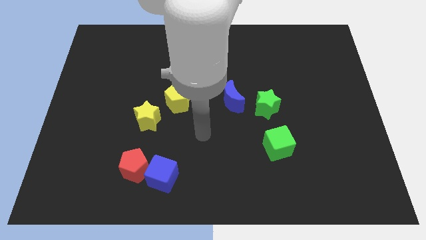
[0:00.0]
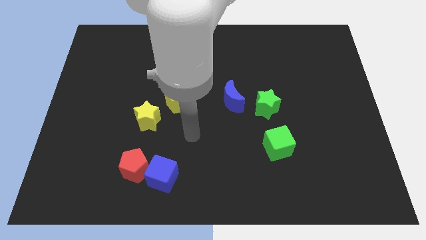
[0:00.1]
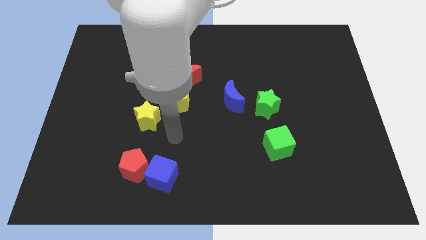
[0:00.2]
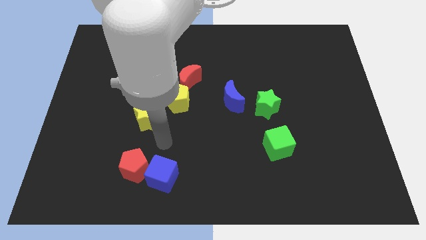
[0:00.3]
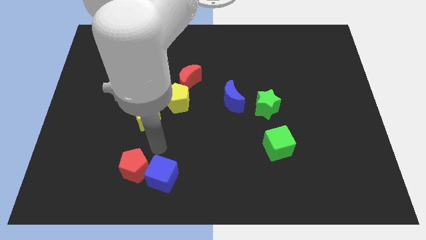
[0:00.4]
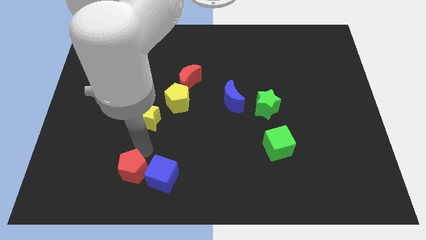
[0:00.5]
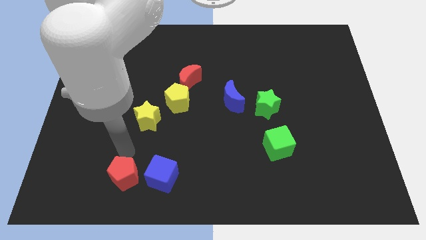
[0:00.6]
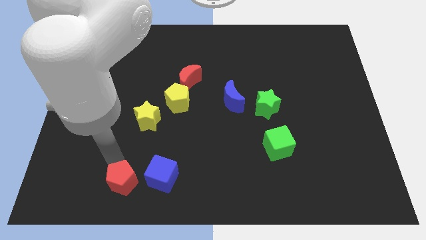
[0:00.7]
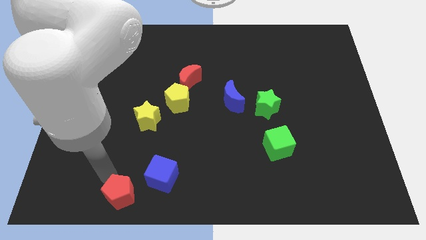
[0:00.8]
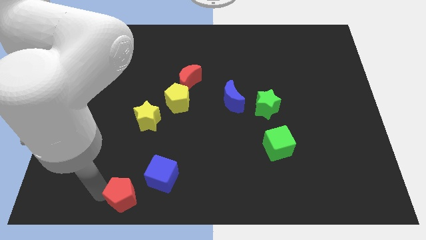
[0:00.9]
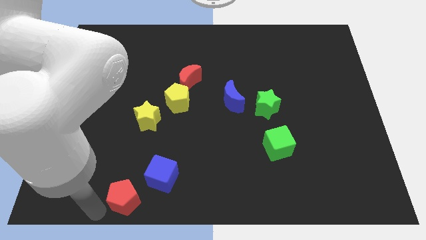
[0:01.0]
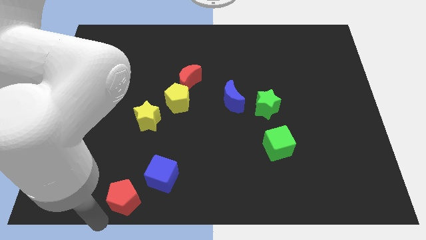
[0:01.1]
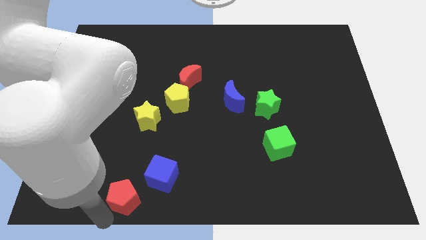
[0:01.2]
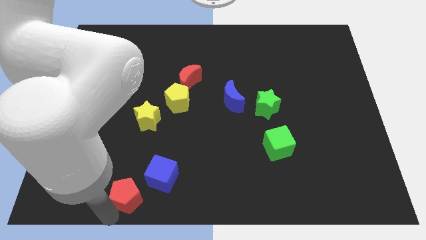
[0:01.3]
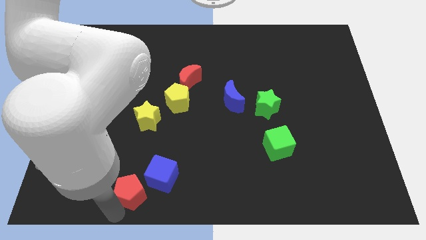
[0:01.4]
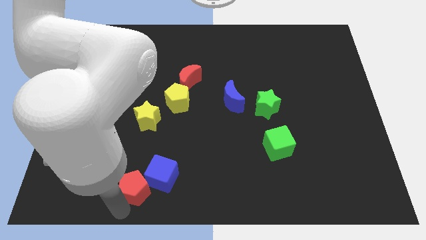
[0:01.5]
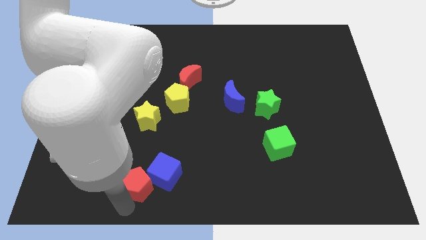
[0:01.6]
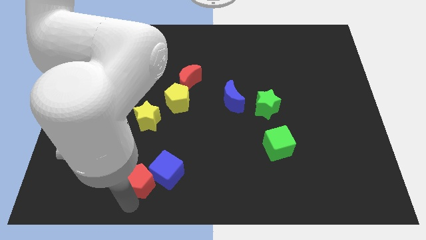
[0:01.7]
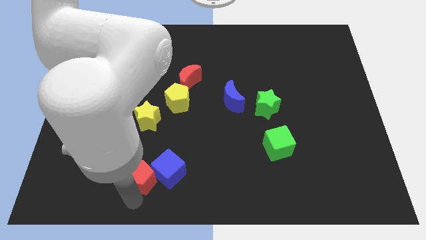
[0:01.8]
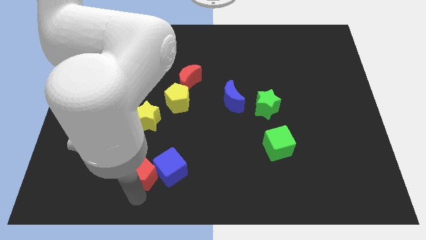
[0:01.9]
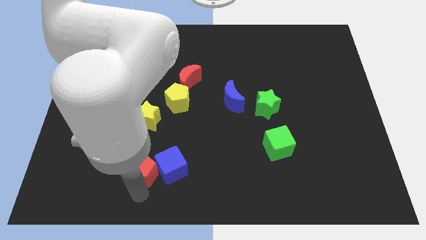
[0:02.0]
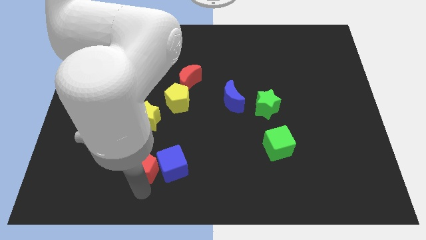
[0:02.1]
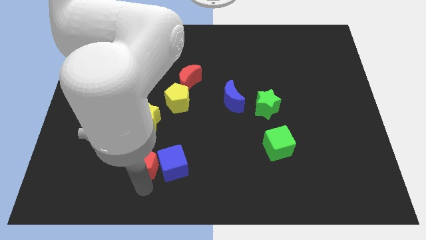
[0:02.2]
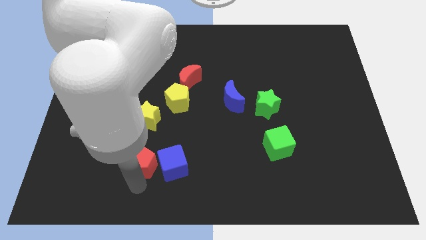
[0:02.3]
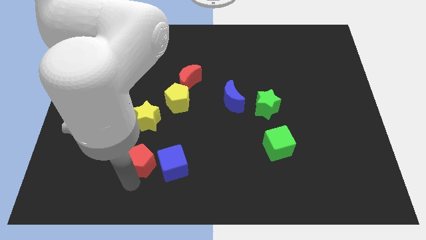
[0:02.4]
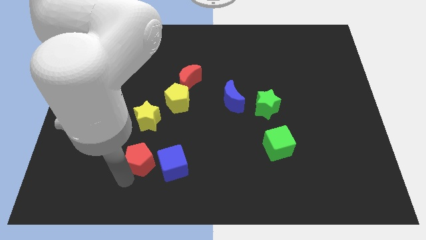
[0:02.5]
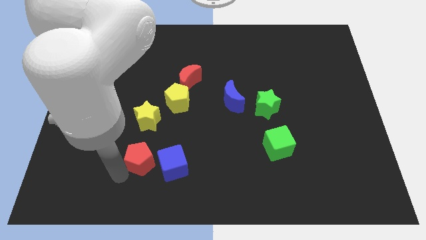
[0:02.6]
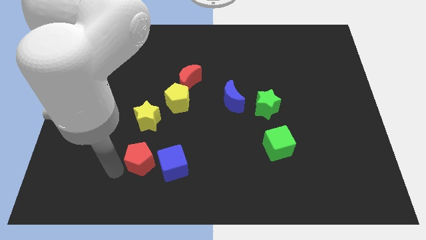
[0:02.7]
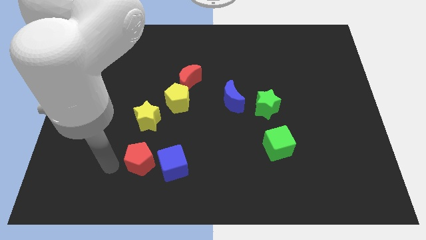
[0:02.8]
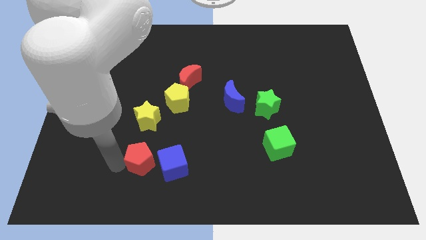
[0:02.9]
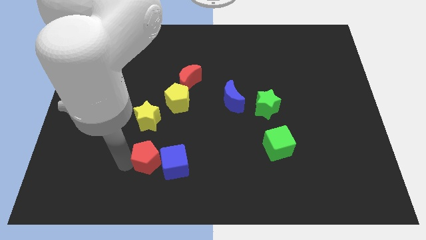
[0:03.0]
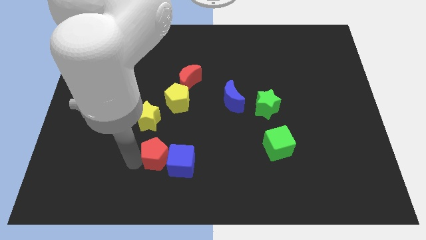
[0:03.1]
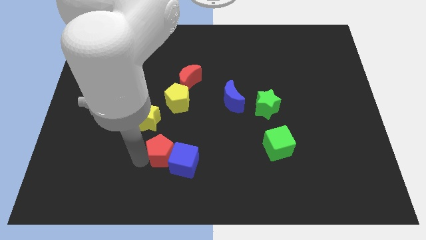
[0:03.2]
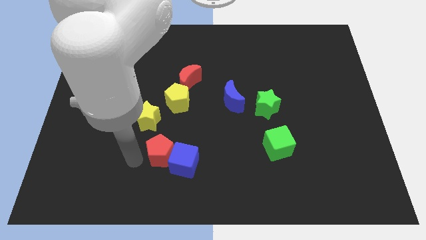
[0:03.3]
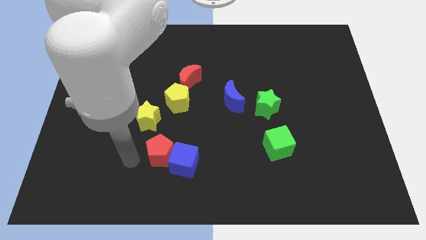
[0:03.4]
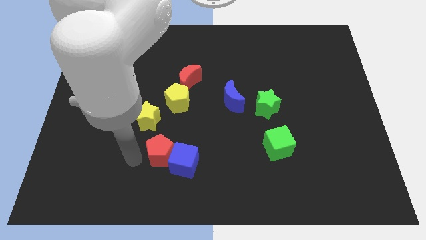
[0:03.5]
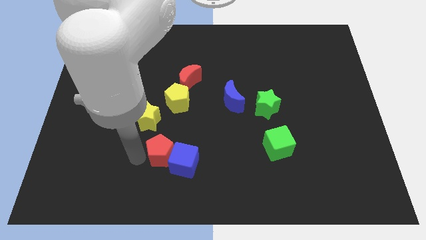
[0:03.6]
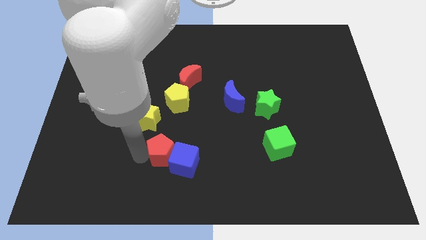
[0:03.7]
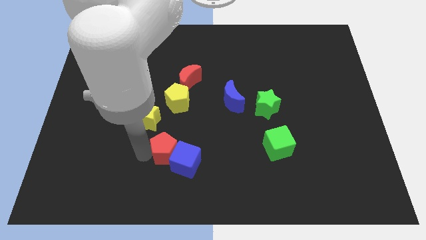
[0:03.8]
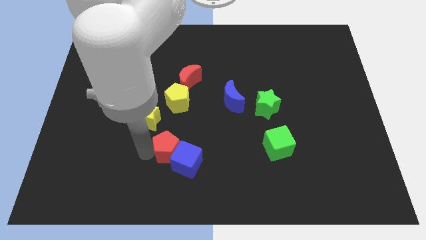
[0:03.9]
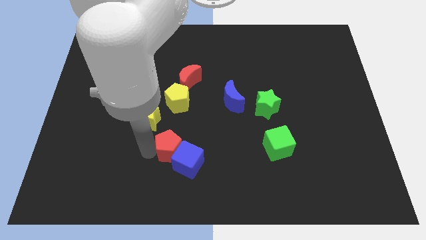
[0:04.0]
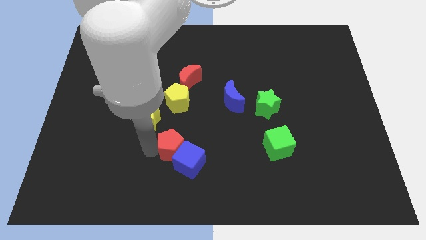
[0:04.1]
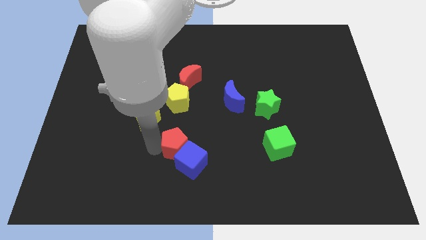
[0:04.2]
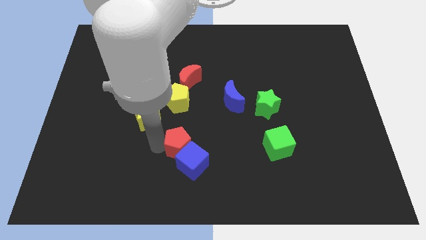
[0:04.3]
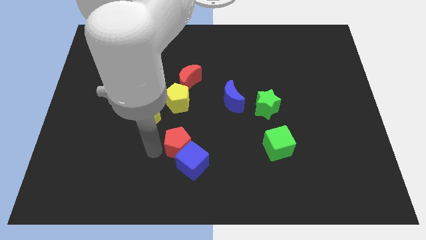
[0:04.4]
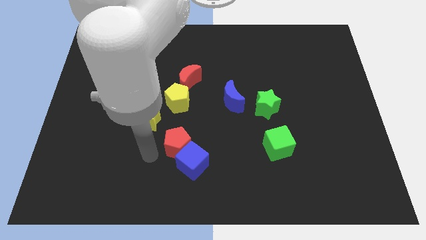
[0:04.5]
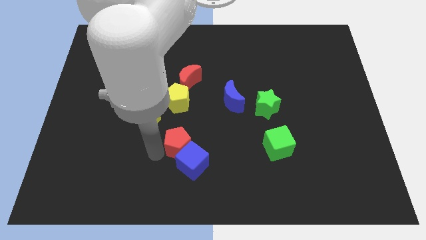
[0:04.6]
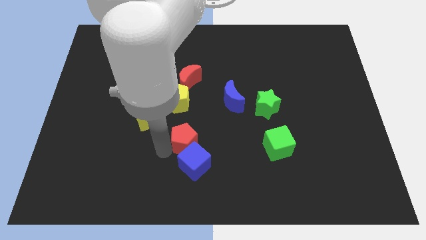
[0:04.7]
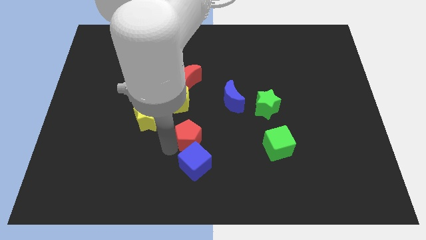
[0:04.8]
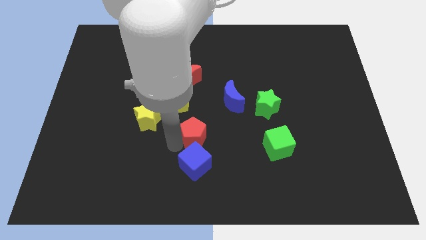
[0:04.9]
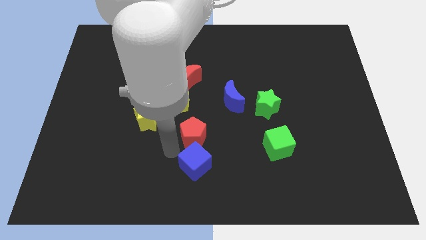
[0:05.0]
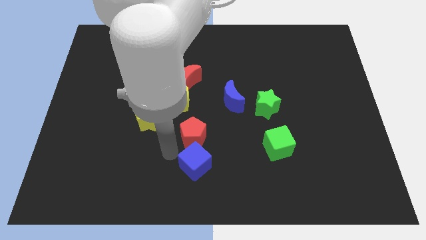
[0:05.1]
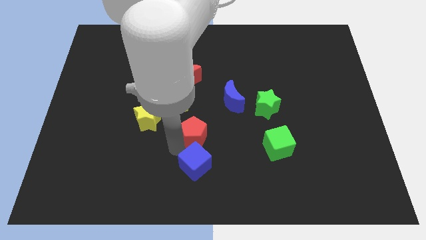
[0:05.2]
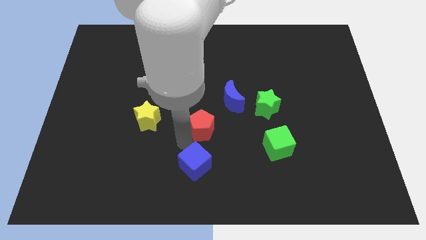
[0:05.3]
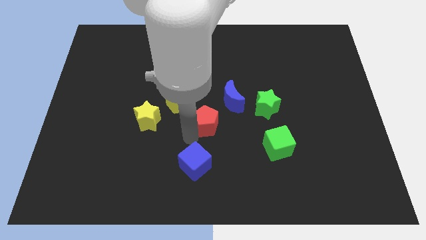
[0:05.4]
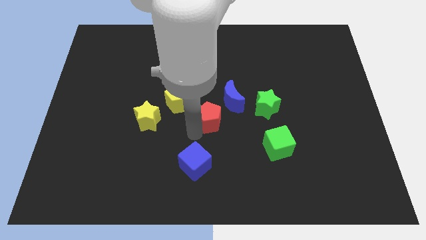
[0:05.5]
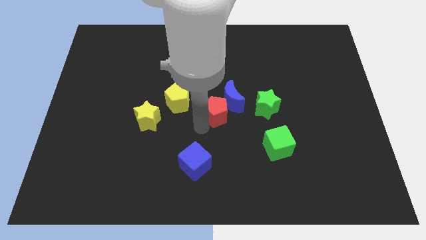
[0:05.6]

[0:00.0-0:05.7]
put the red pentagon to the blue moon

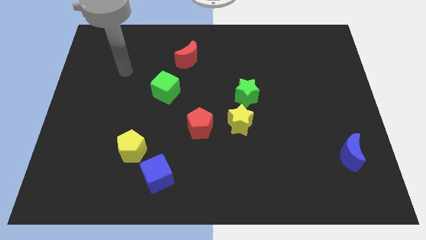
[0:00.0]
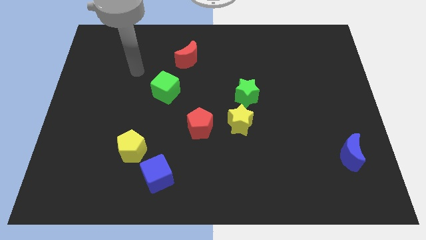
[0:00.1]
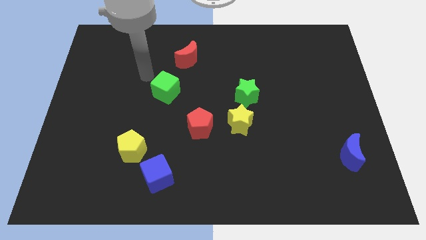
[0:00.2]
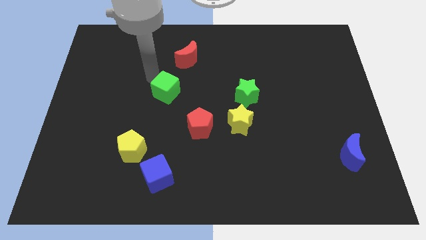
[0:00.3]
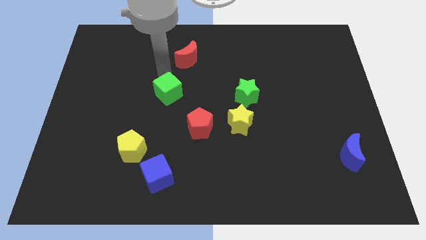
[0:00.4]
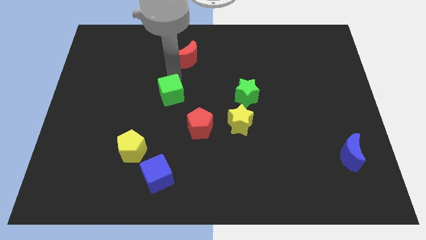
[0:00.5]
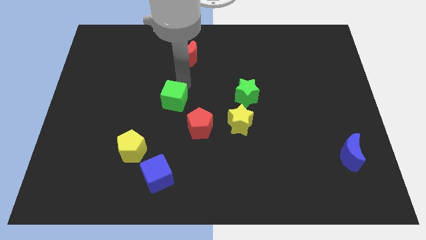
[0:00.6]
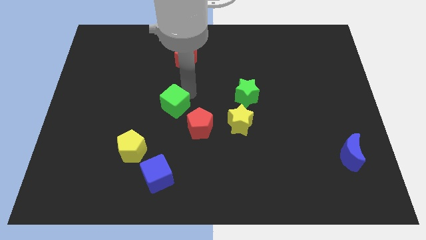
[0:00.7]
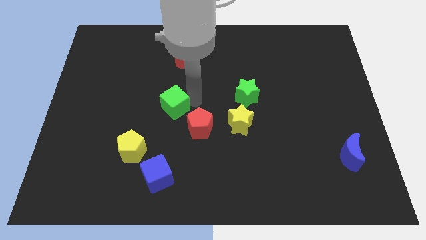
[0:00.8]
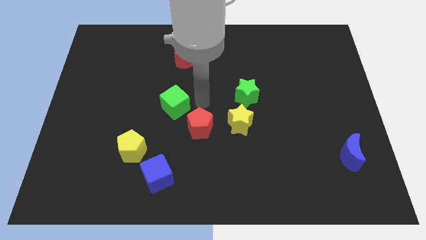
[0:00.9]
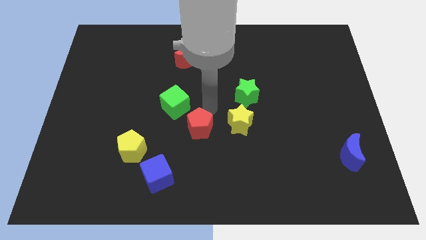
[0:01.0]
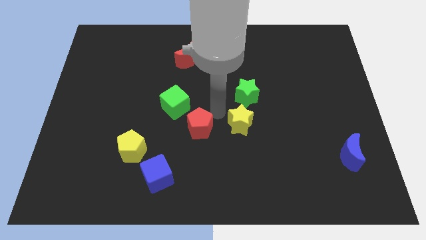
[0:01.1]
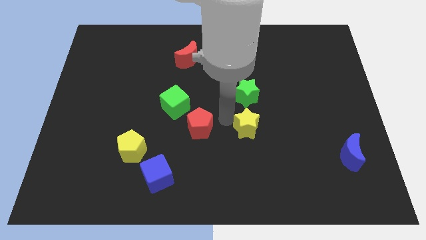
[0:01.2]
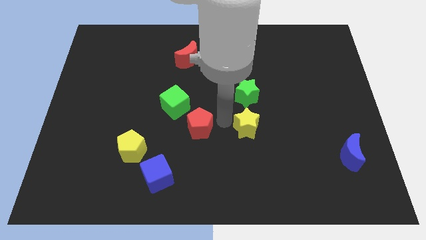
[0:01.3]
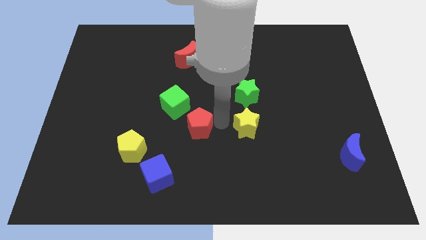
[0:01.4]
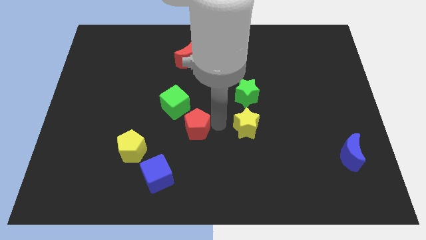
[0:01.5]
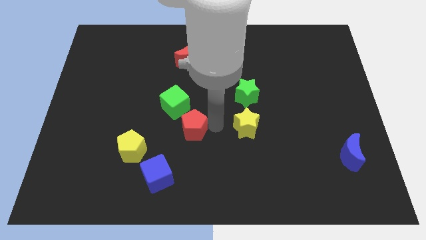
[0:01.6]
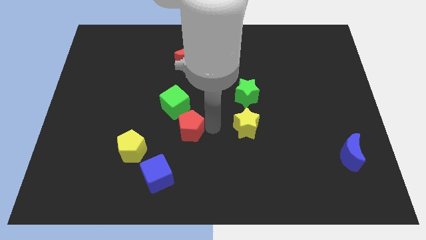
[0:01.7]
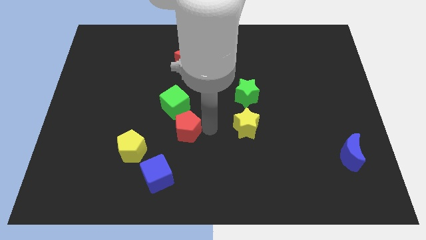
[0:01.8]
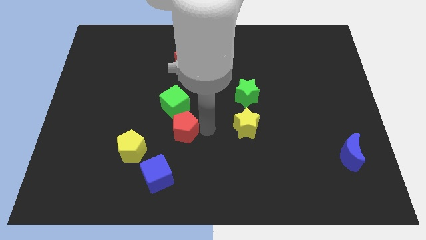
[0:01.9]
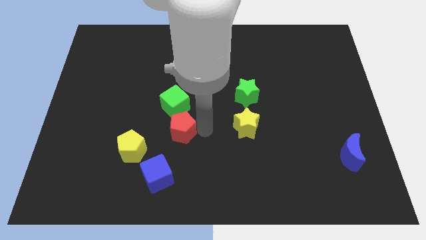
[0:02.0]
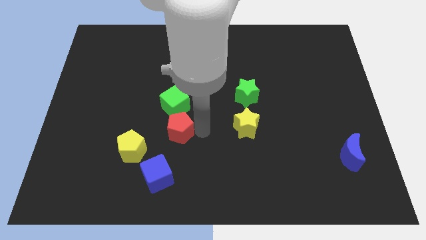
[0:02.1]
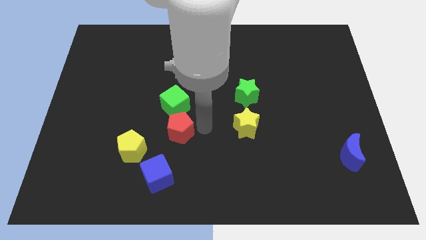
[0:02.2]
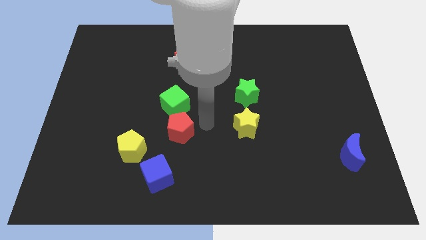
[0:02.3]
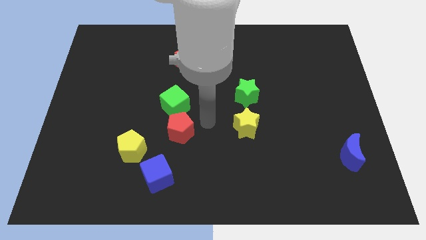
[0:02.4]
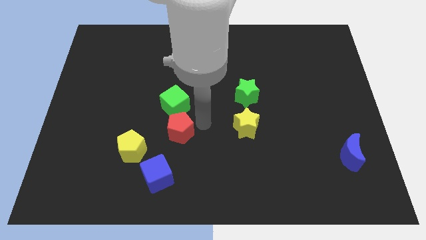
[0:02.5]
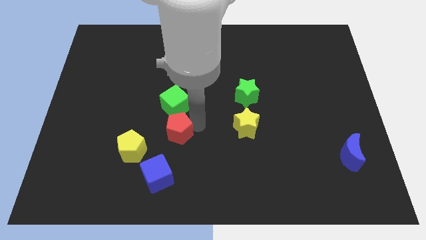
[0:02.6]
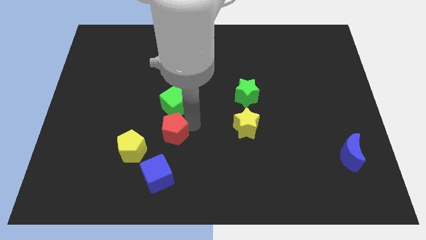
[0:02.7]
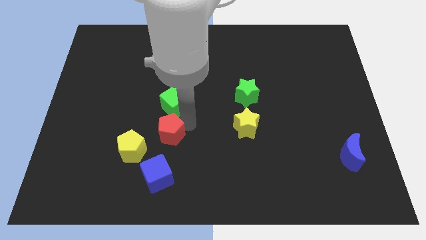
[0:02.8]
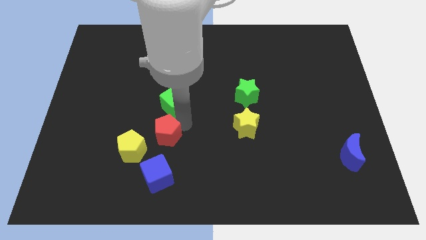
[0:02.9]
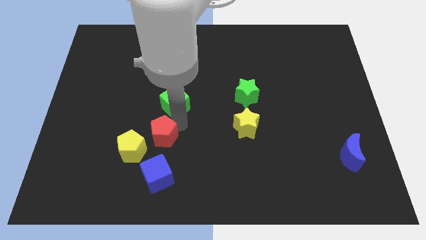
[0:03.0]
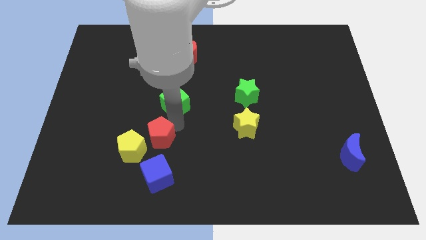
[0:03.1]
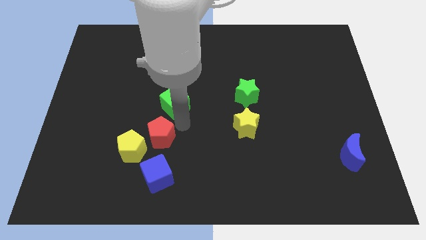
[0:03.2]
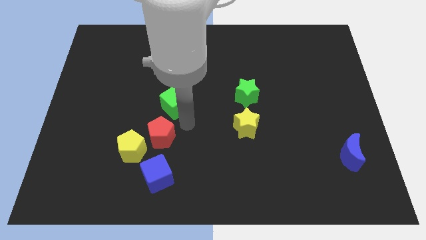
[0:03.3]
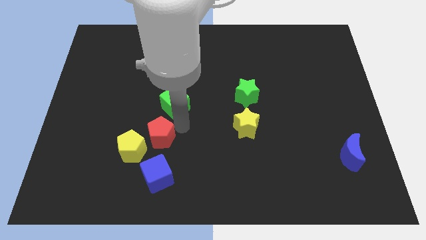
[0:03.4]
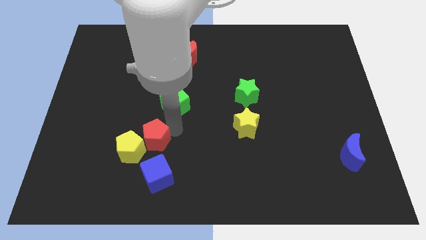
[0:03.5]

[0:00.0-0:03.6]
push the red pentagon towards the yellow pentagon
